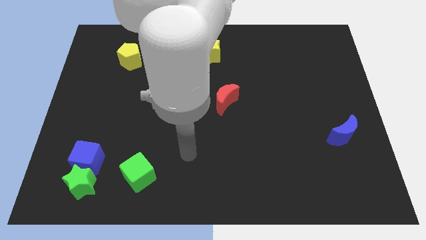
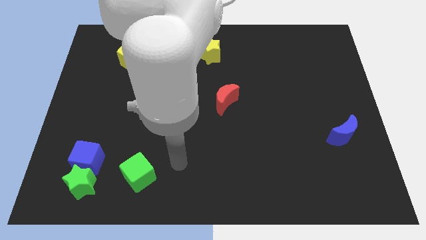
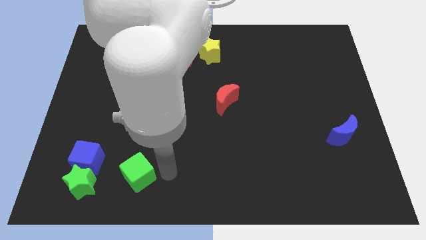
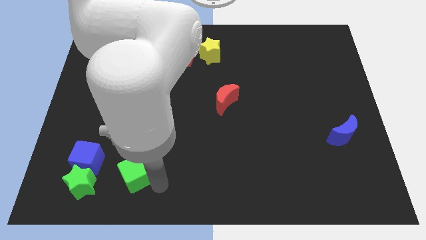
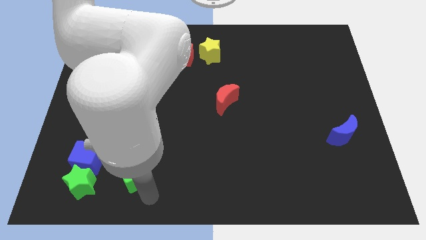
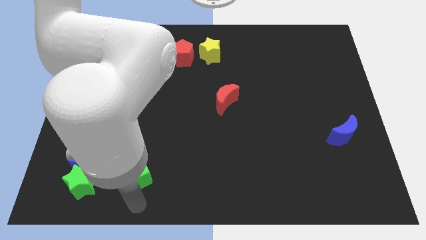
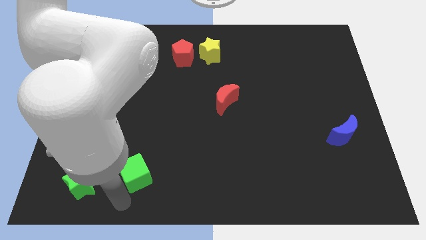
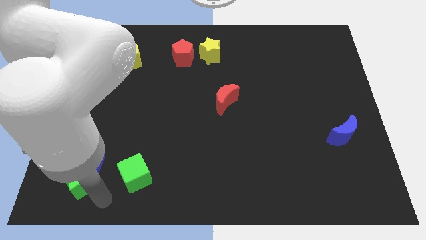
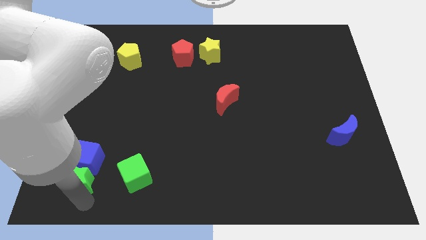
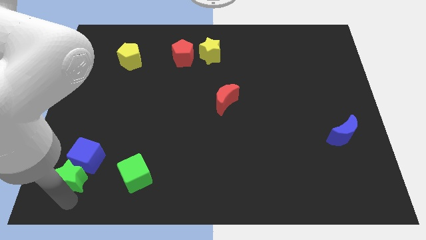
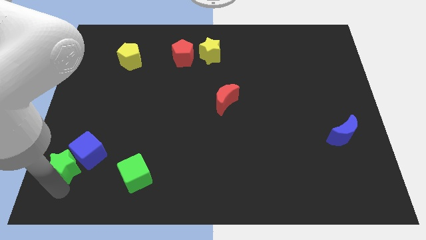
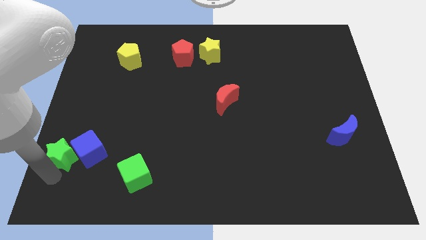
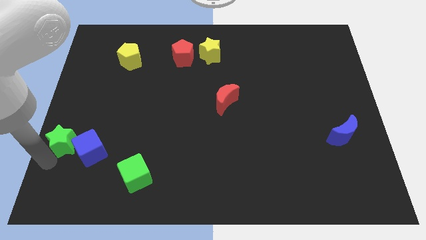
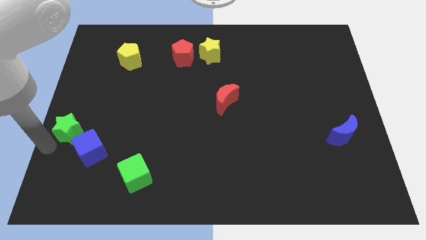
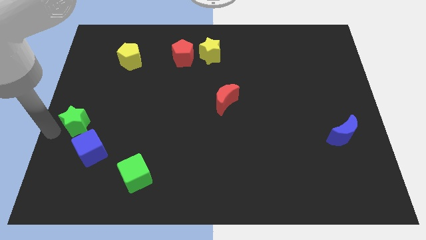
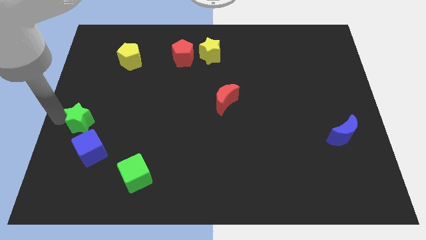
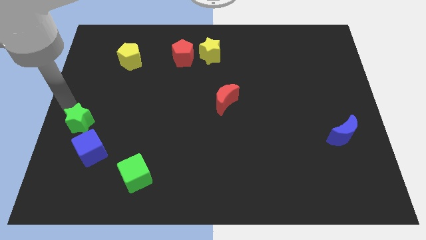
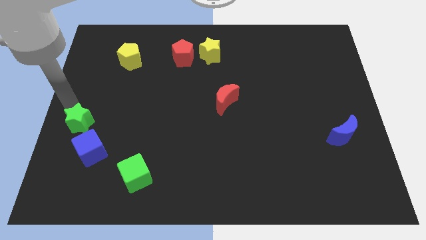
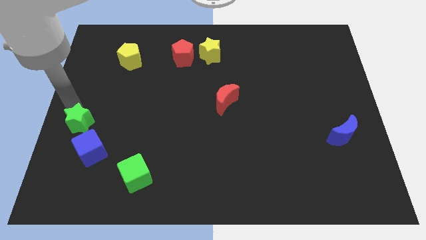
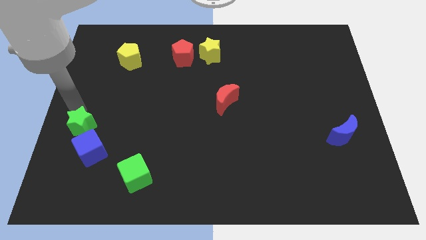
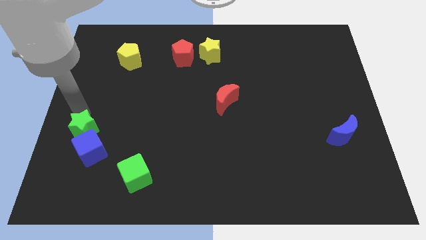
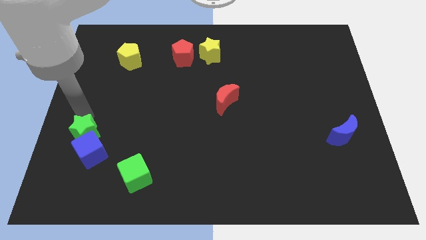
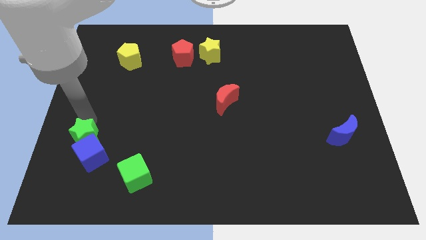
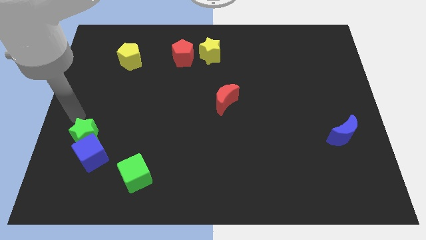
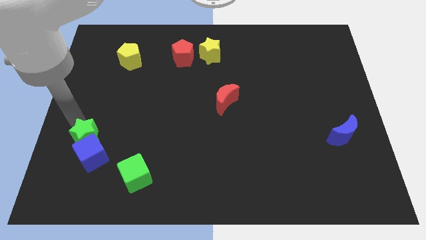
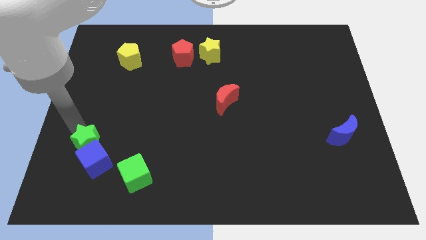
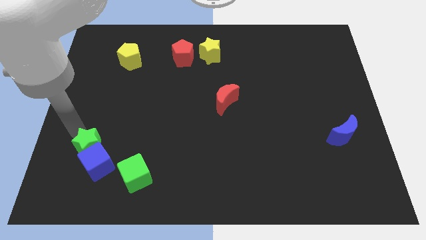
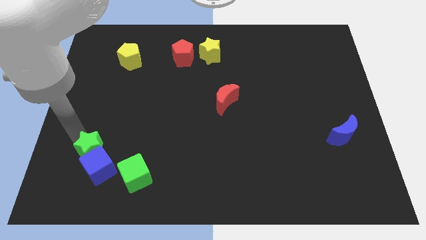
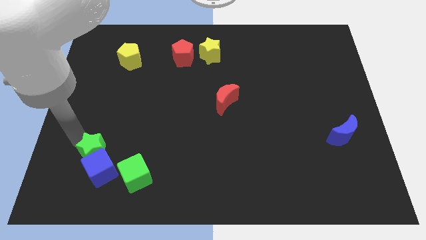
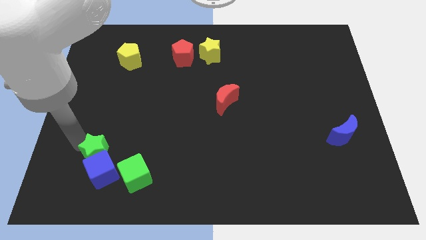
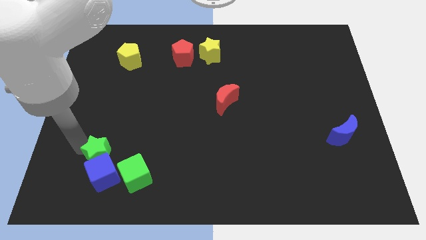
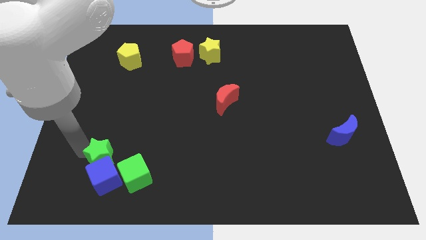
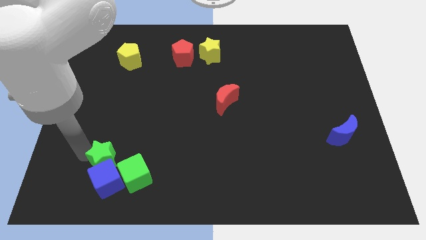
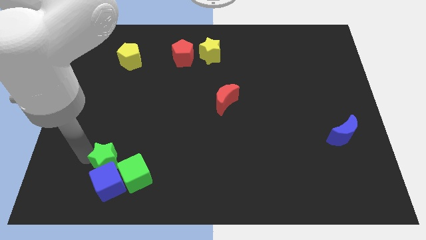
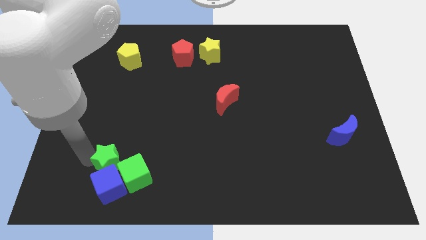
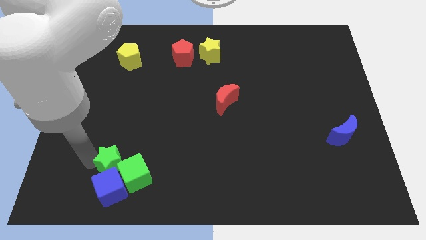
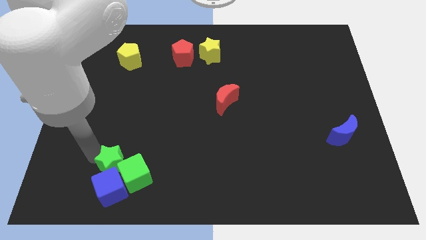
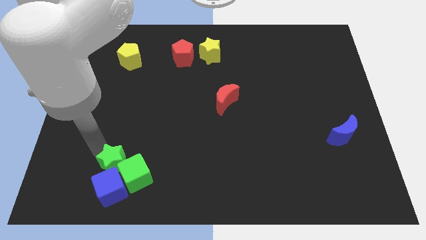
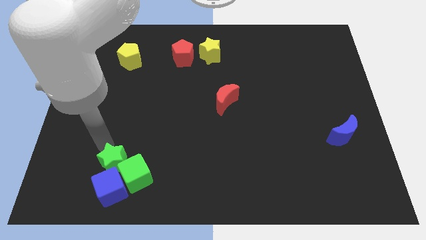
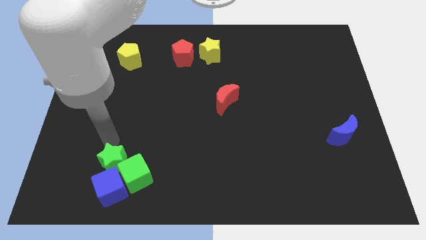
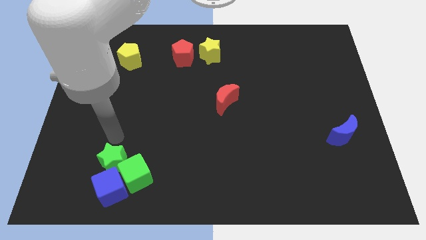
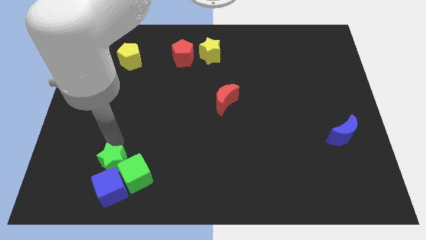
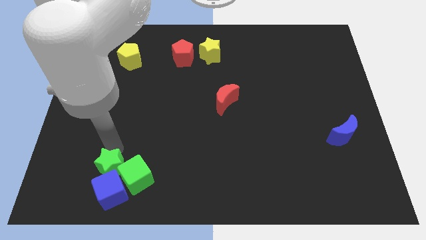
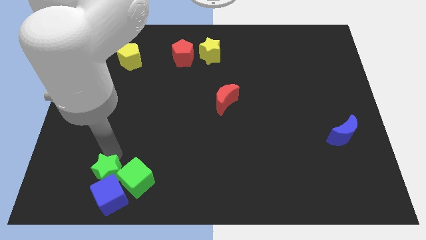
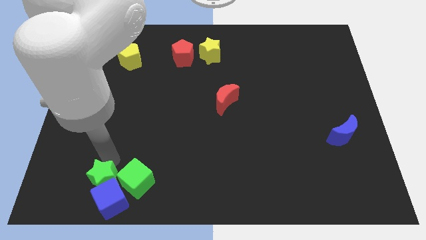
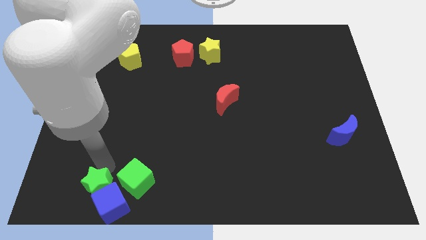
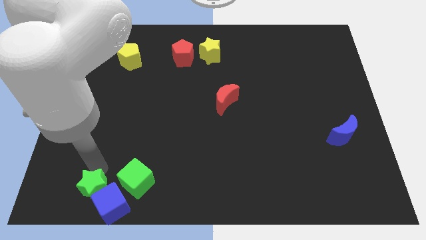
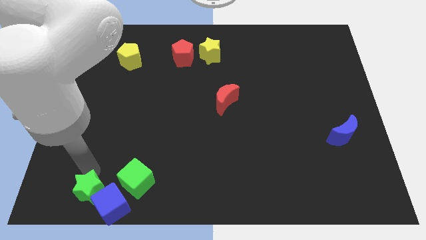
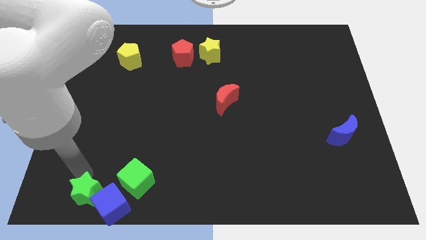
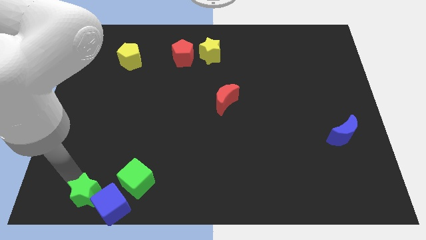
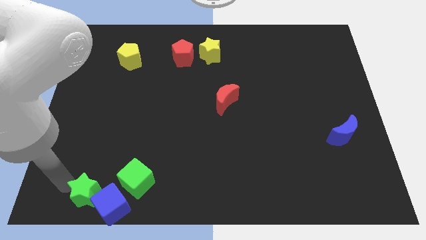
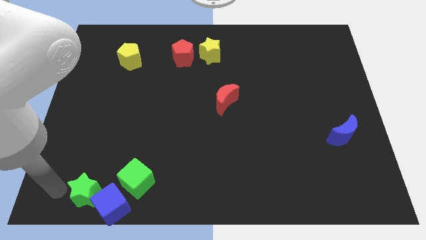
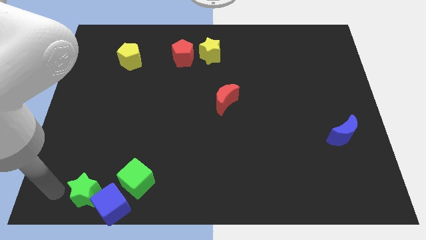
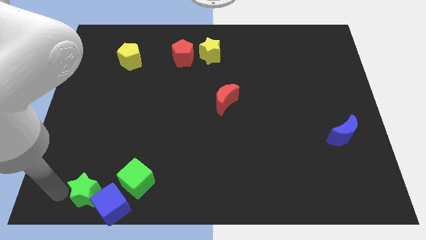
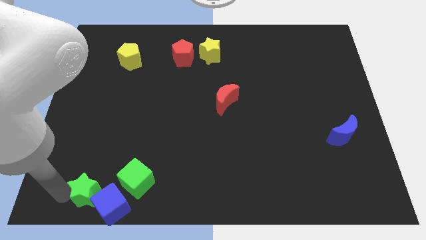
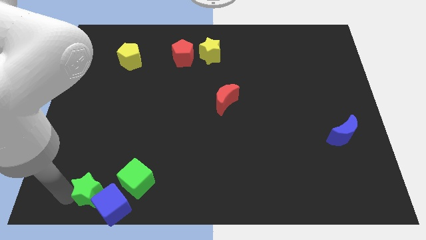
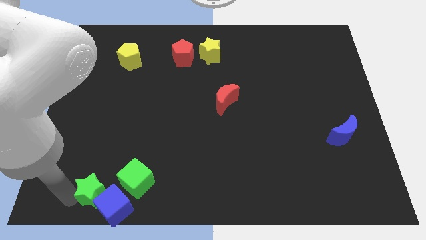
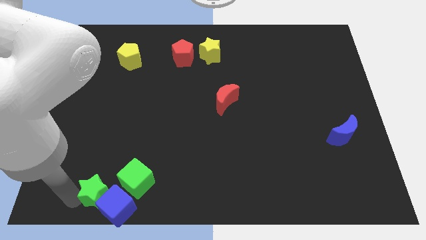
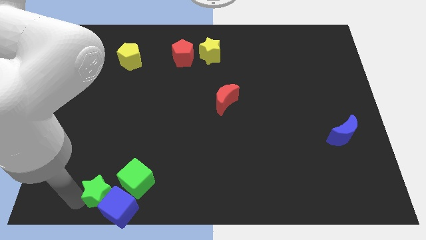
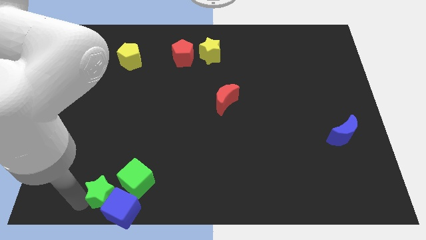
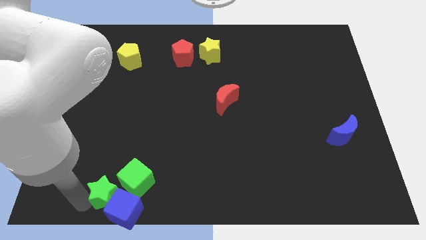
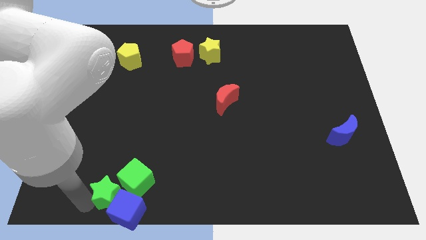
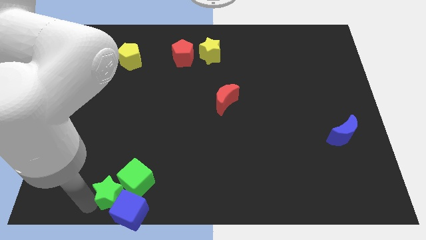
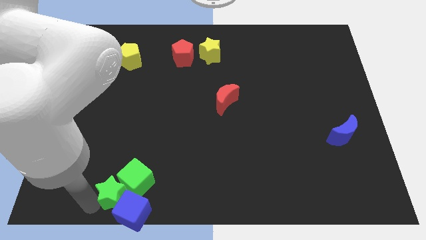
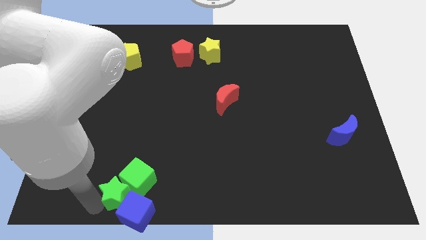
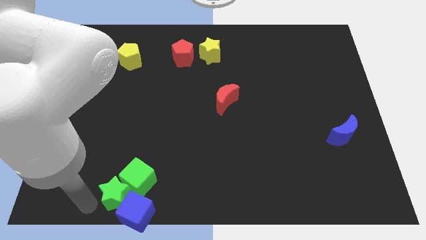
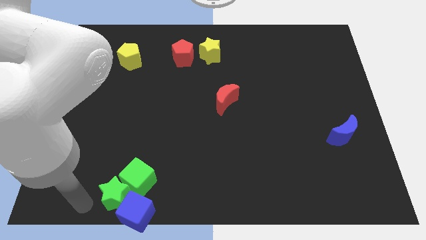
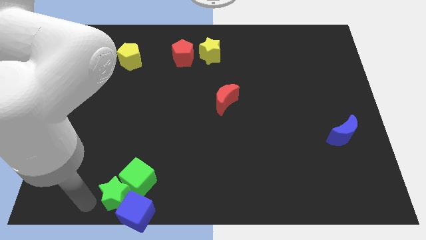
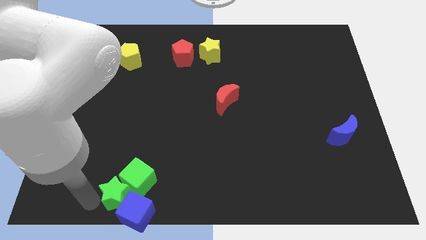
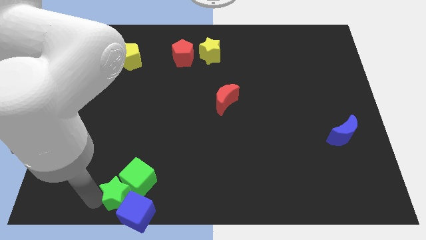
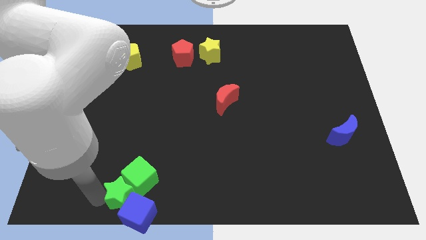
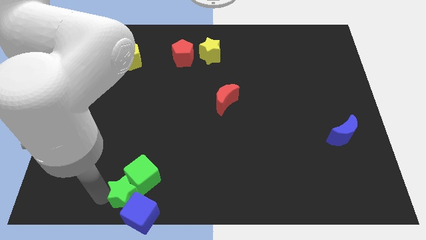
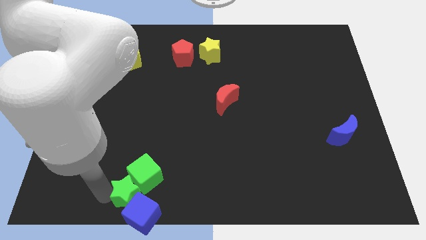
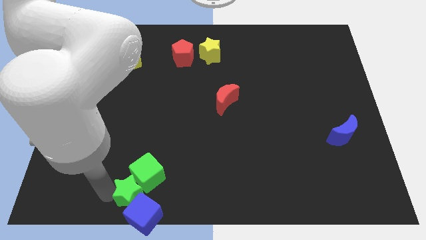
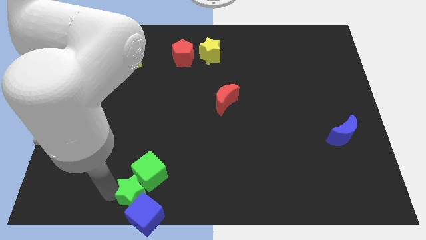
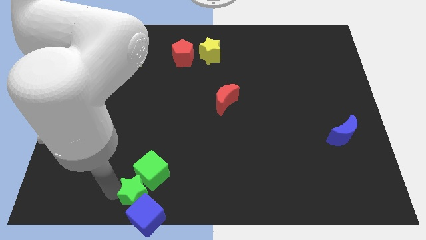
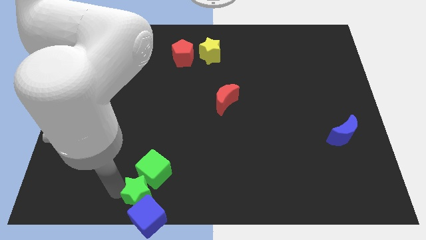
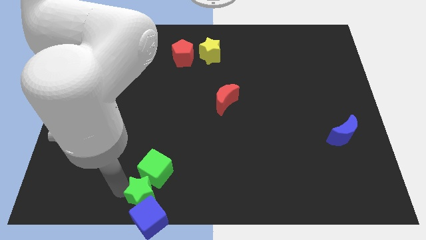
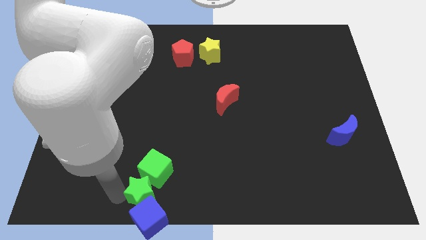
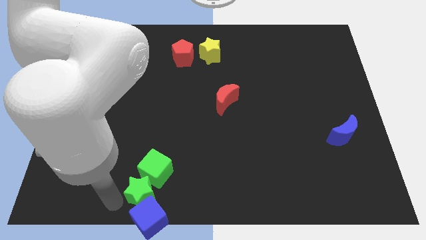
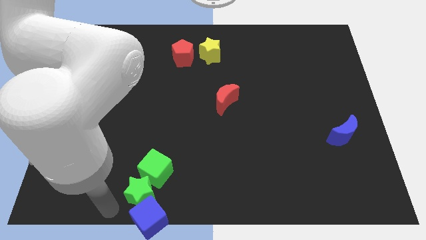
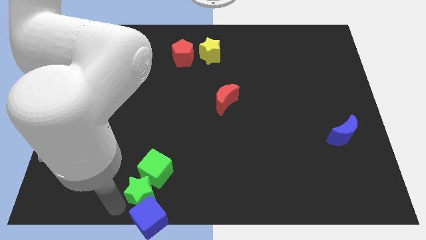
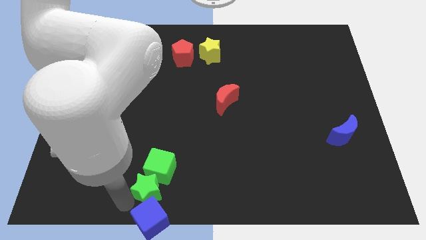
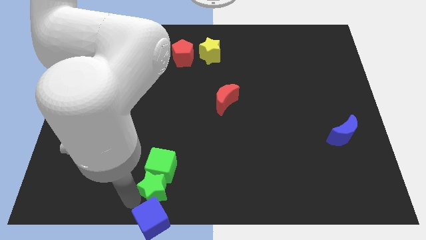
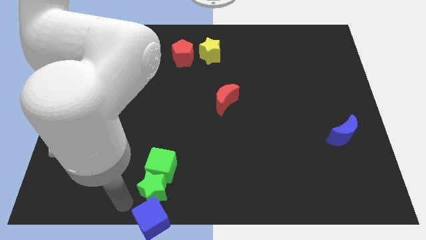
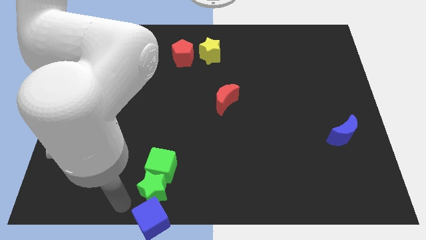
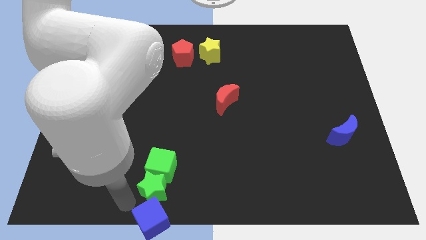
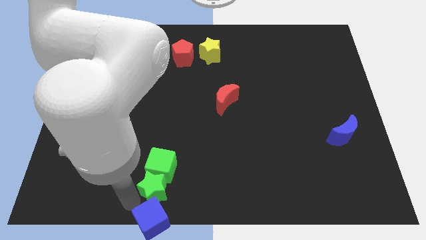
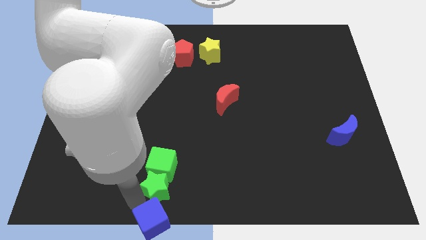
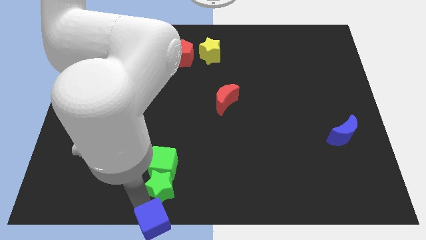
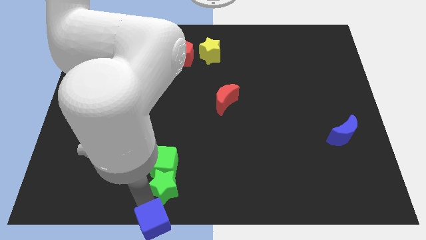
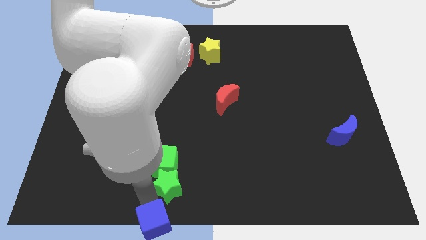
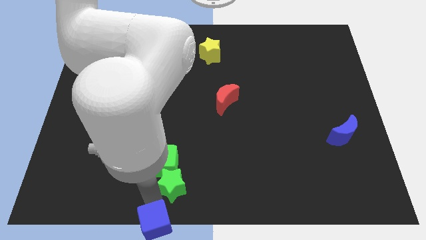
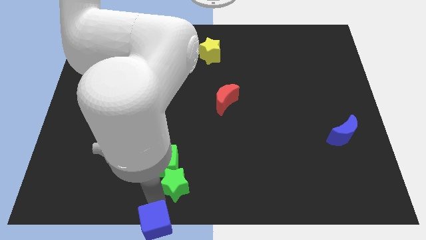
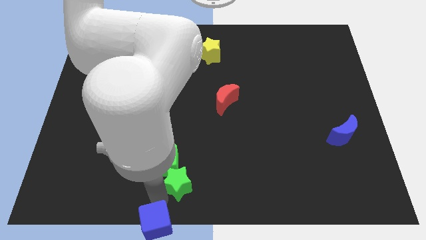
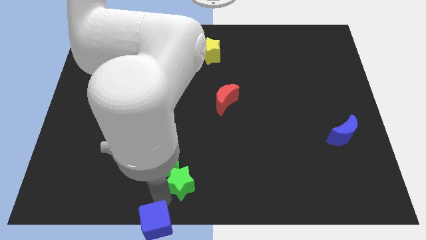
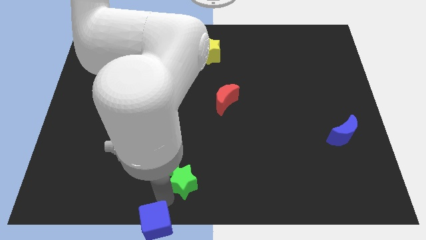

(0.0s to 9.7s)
push the green star to the right
